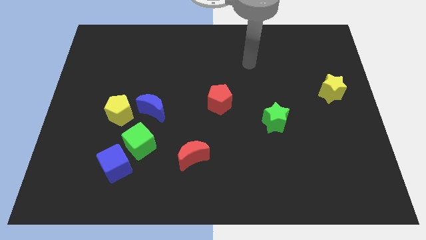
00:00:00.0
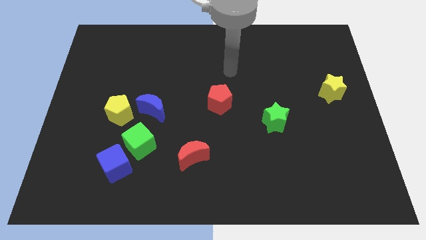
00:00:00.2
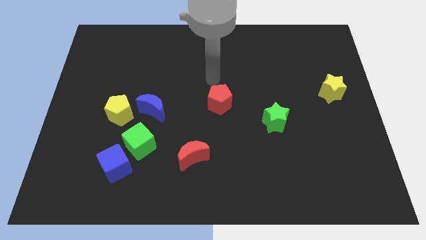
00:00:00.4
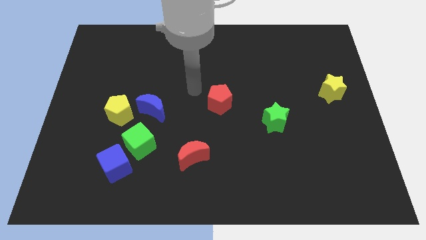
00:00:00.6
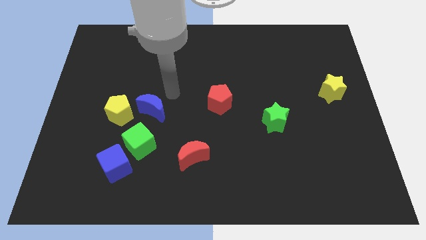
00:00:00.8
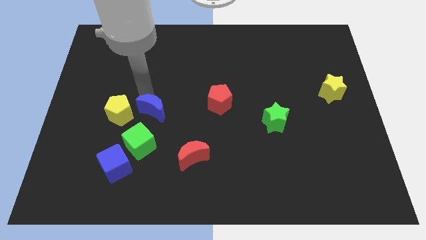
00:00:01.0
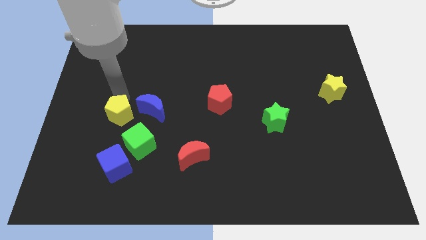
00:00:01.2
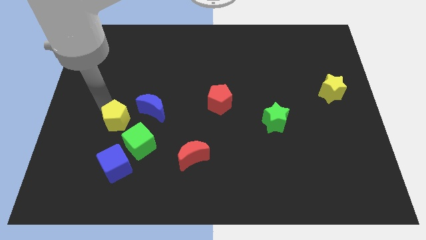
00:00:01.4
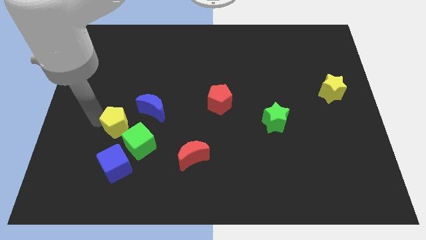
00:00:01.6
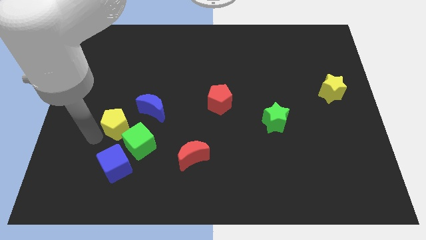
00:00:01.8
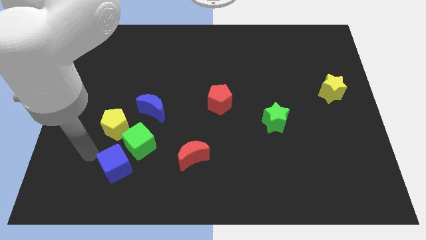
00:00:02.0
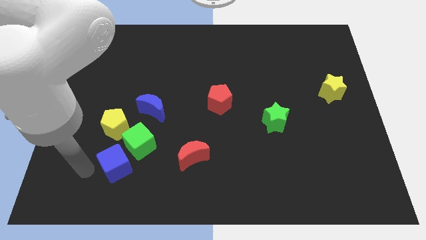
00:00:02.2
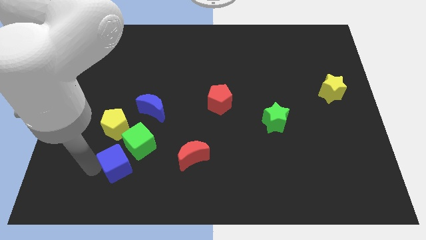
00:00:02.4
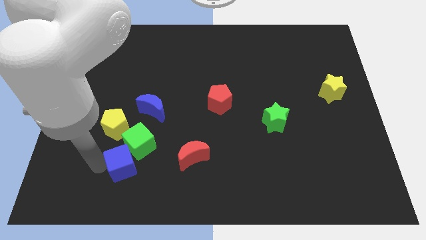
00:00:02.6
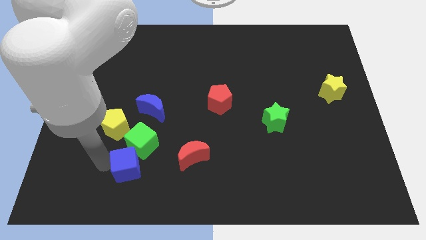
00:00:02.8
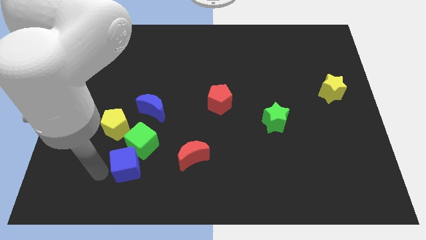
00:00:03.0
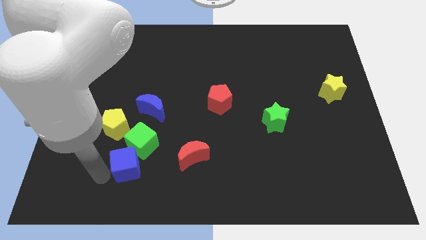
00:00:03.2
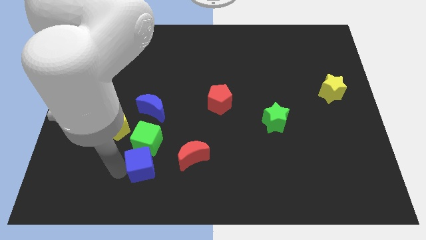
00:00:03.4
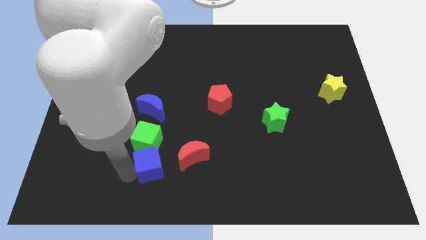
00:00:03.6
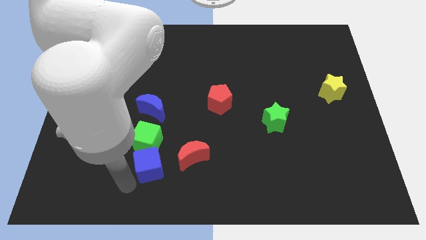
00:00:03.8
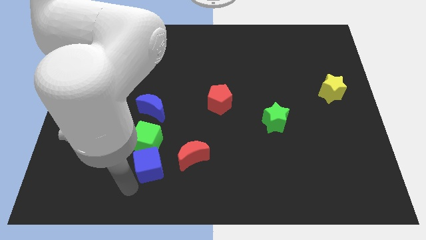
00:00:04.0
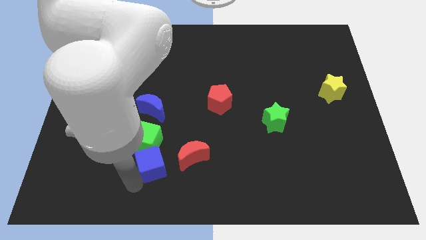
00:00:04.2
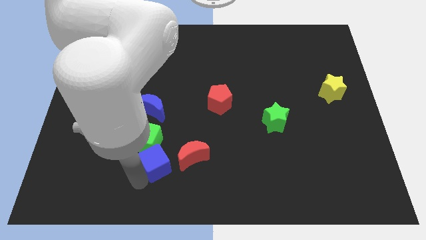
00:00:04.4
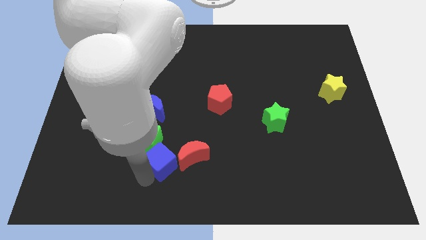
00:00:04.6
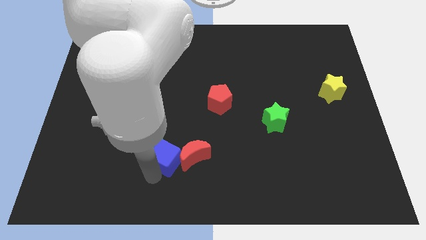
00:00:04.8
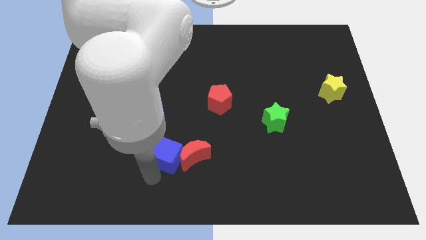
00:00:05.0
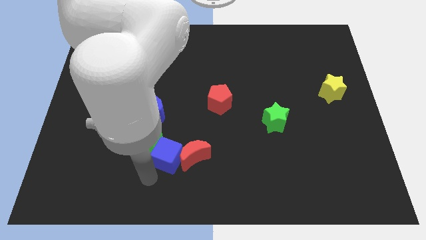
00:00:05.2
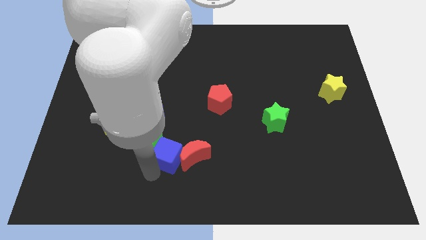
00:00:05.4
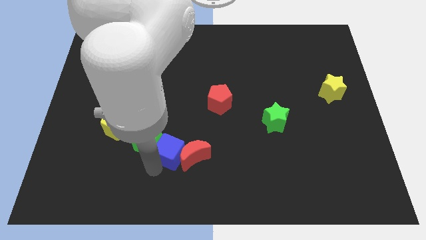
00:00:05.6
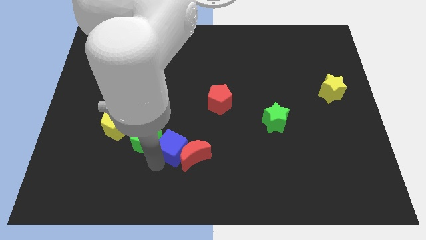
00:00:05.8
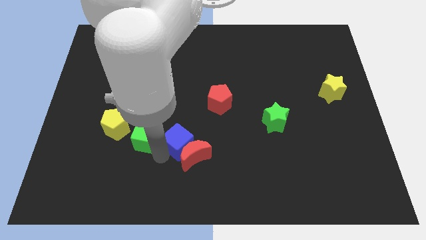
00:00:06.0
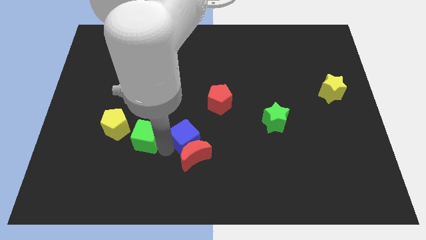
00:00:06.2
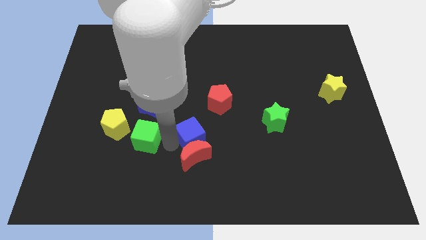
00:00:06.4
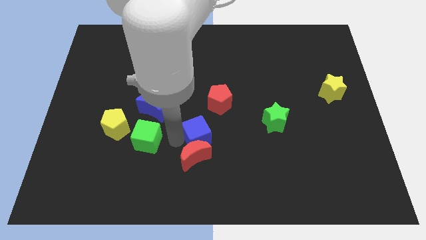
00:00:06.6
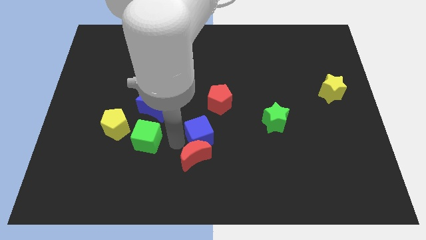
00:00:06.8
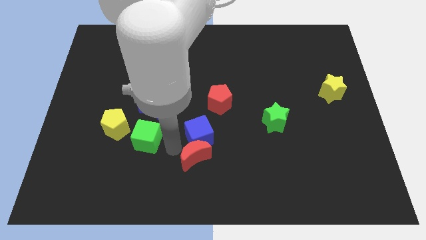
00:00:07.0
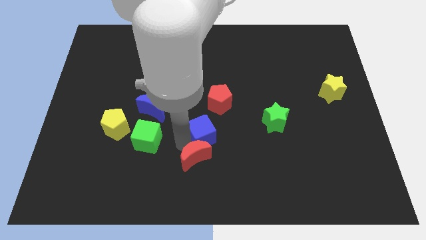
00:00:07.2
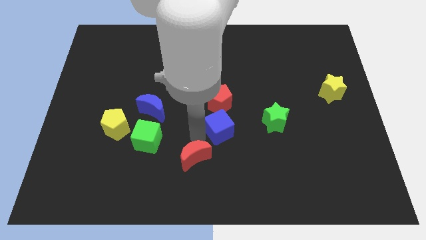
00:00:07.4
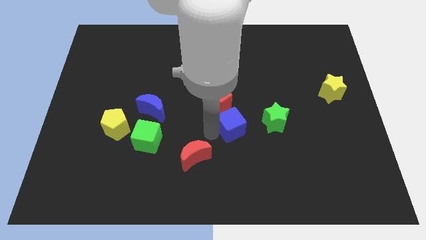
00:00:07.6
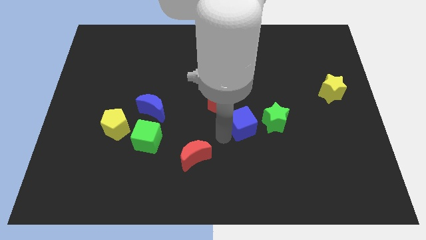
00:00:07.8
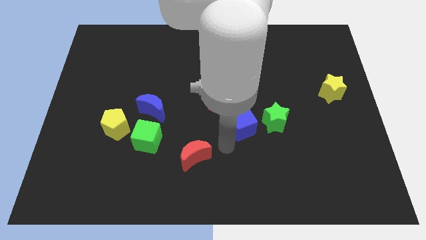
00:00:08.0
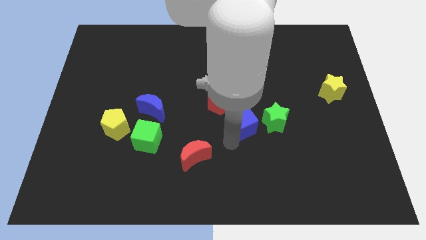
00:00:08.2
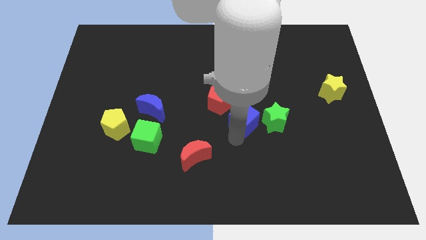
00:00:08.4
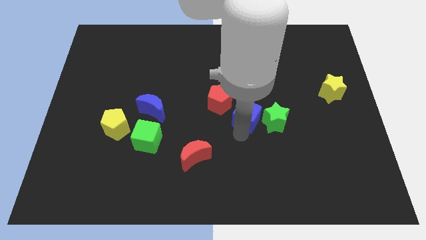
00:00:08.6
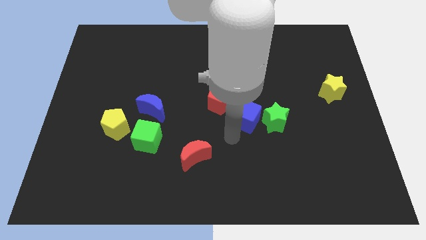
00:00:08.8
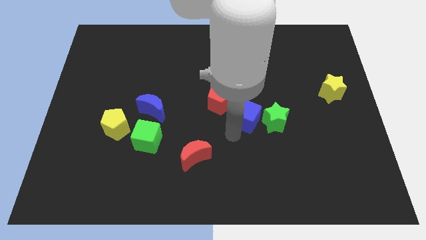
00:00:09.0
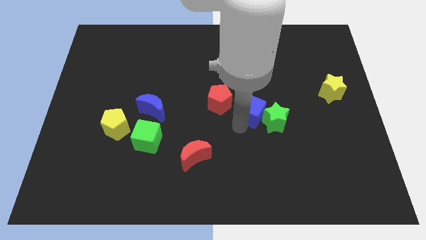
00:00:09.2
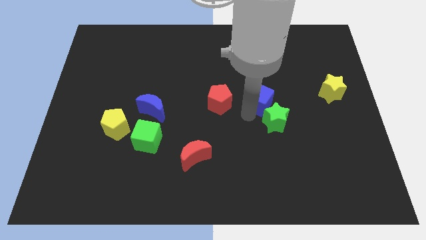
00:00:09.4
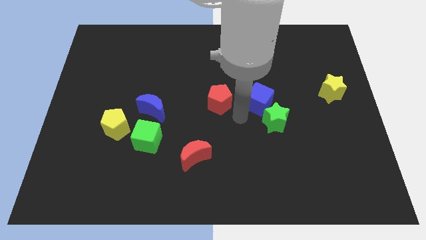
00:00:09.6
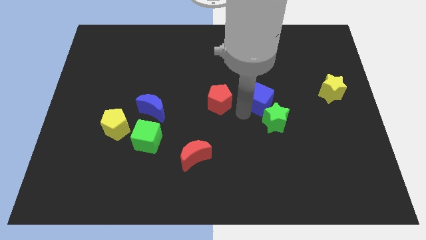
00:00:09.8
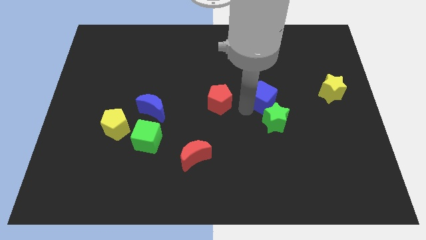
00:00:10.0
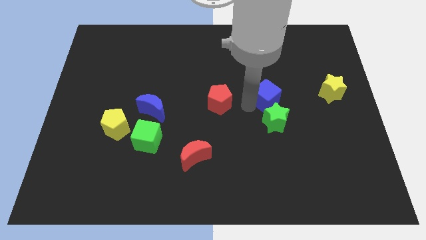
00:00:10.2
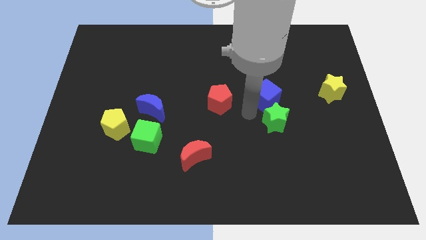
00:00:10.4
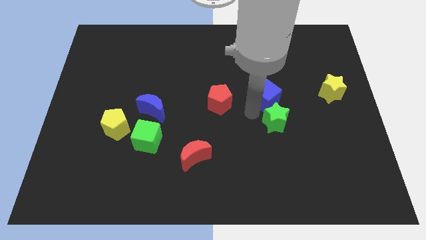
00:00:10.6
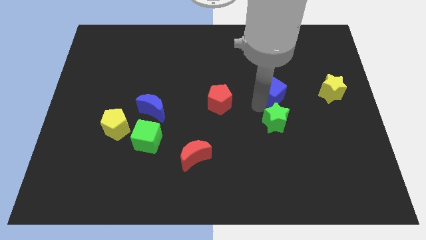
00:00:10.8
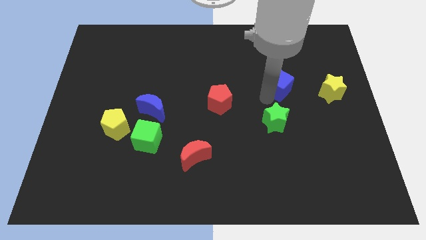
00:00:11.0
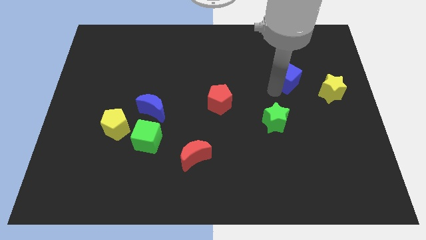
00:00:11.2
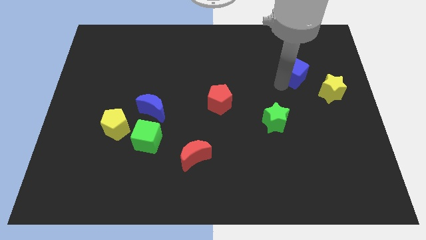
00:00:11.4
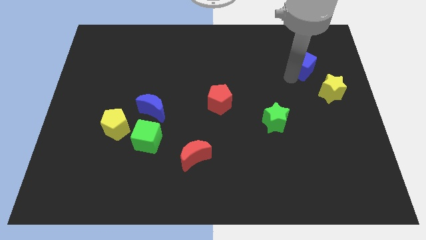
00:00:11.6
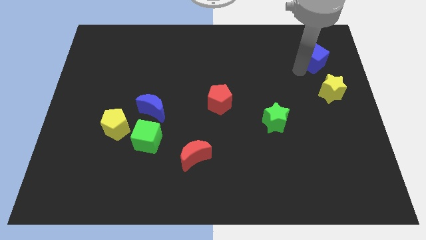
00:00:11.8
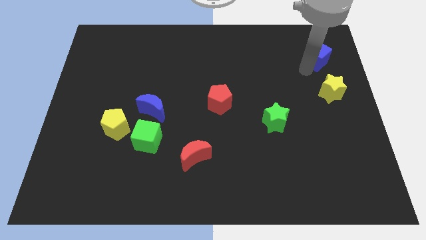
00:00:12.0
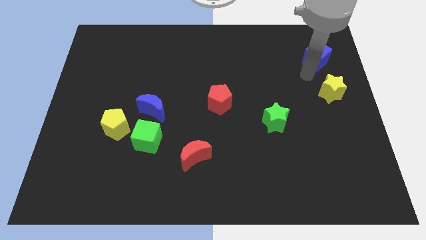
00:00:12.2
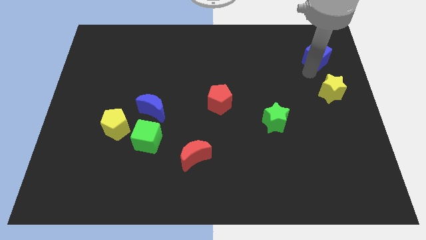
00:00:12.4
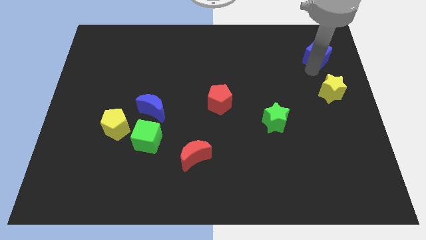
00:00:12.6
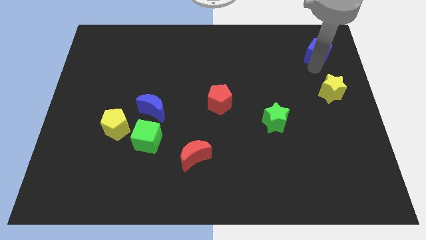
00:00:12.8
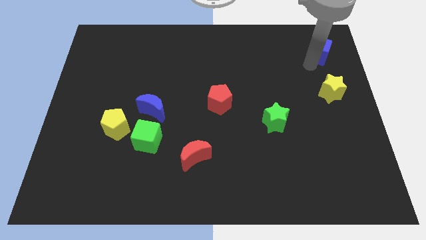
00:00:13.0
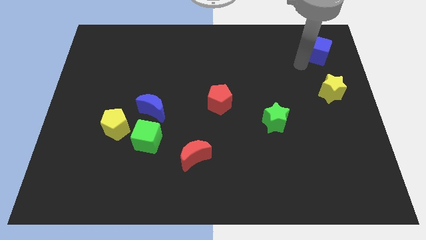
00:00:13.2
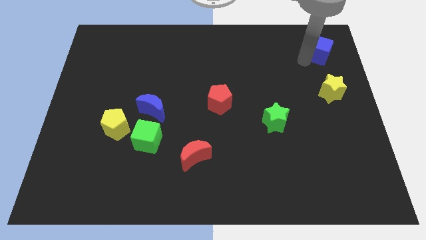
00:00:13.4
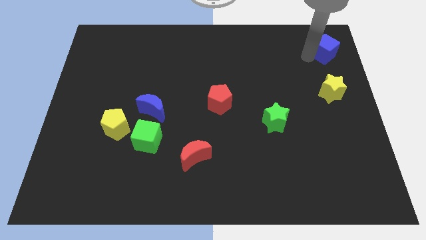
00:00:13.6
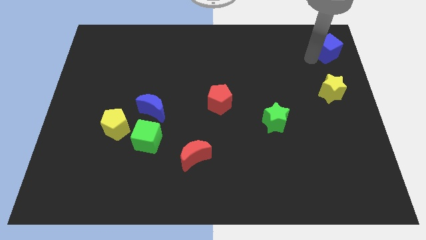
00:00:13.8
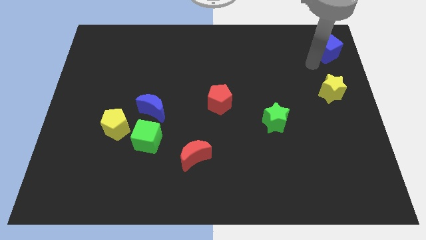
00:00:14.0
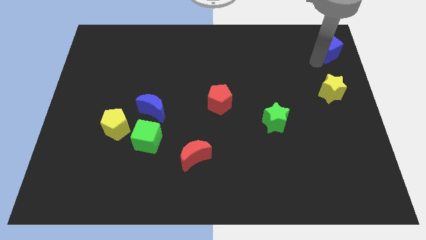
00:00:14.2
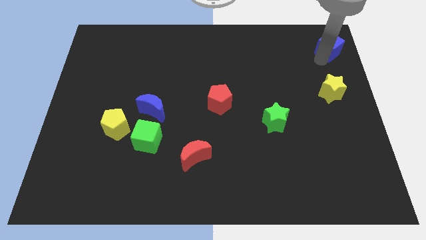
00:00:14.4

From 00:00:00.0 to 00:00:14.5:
move the blue cube to the top right of the board
